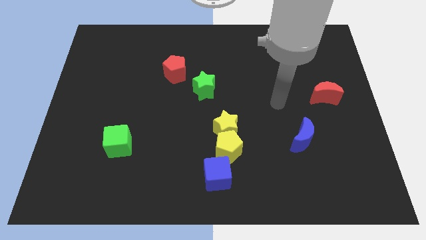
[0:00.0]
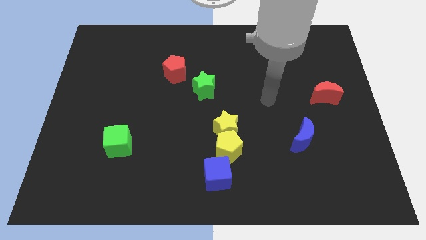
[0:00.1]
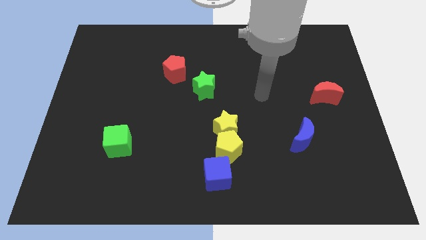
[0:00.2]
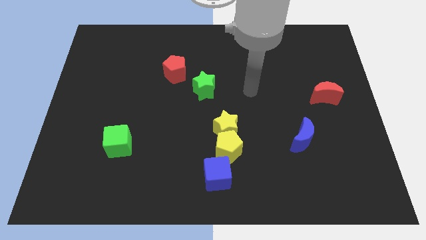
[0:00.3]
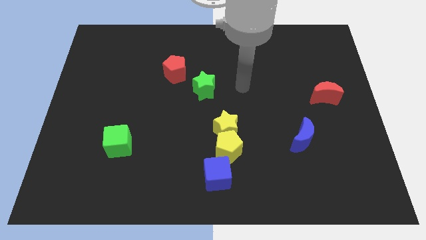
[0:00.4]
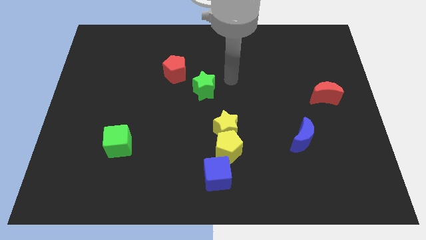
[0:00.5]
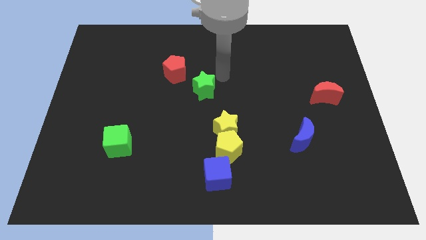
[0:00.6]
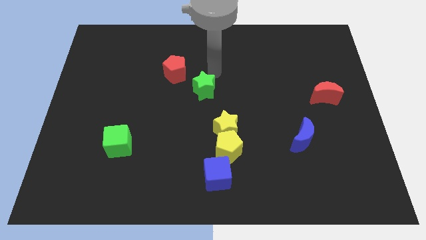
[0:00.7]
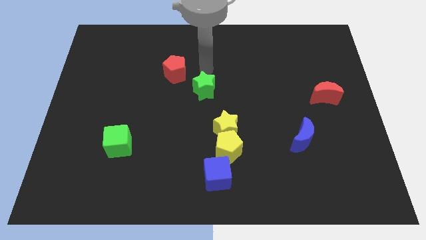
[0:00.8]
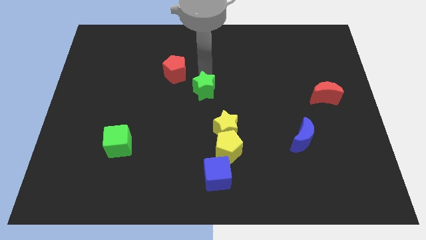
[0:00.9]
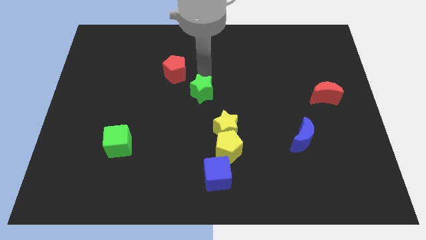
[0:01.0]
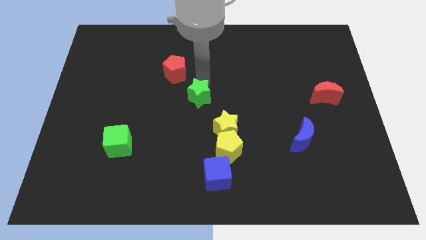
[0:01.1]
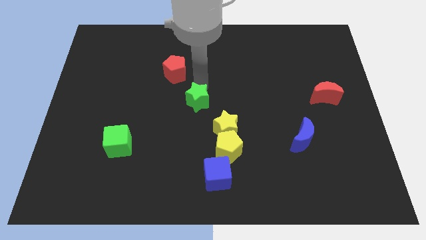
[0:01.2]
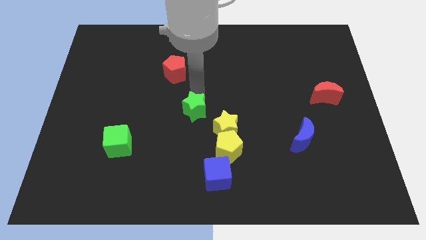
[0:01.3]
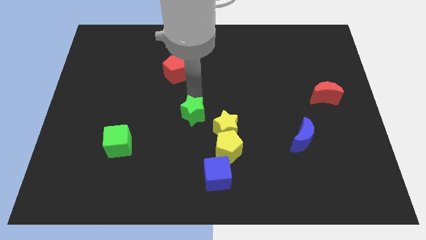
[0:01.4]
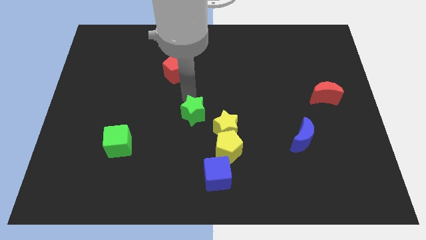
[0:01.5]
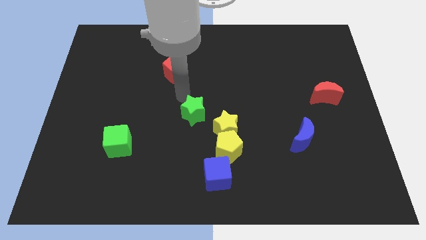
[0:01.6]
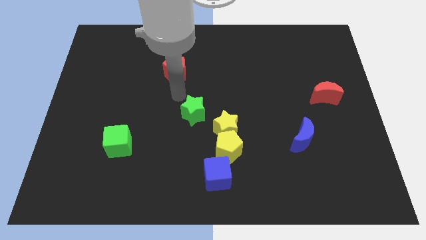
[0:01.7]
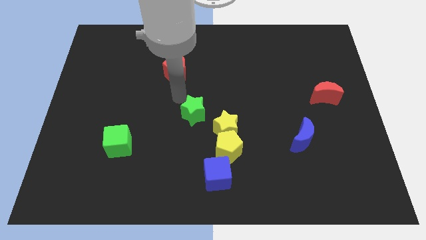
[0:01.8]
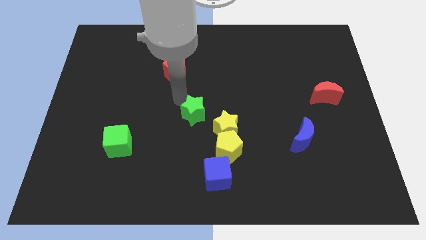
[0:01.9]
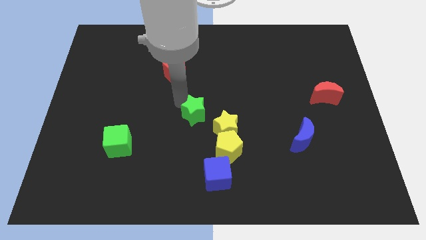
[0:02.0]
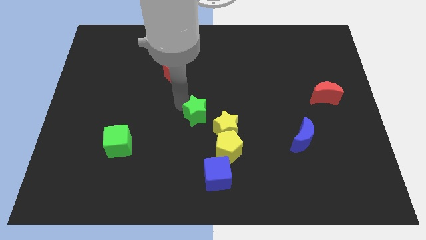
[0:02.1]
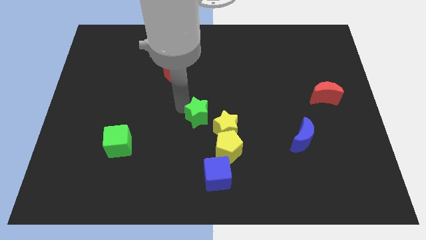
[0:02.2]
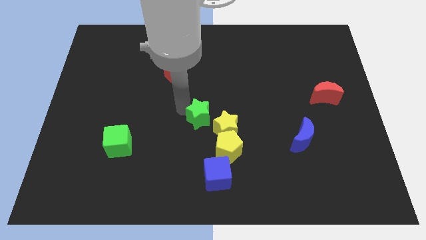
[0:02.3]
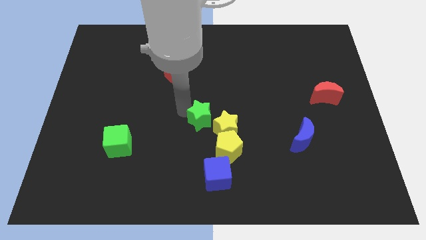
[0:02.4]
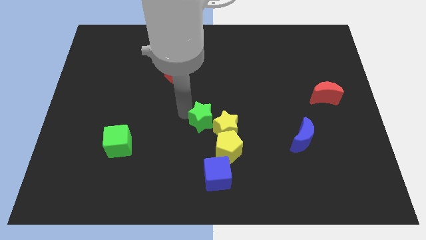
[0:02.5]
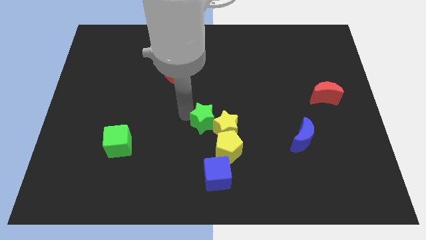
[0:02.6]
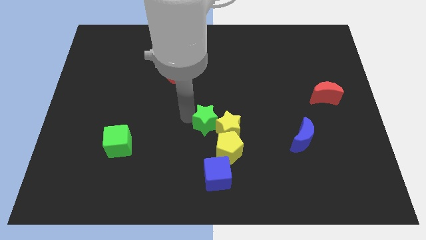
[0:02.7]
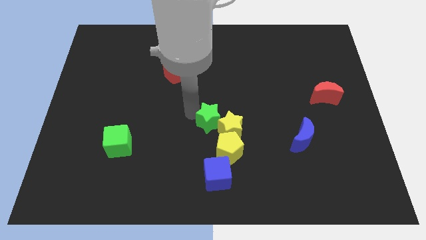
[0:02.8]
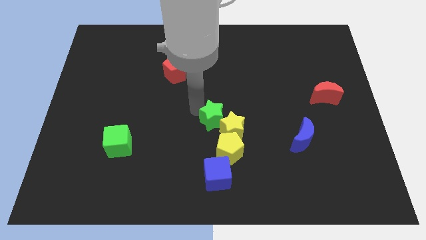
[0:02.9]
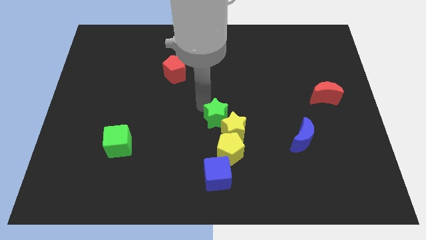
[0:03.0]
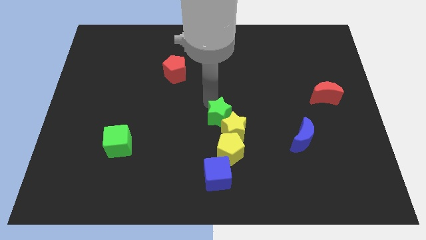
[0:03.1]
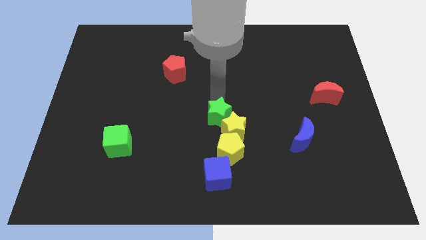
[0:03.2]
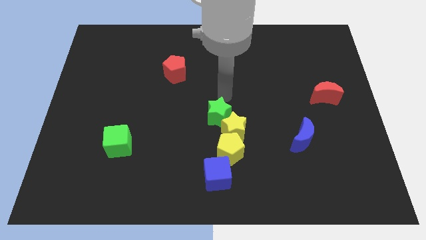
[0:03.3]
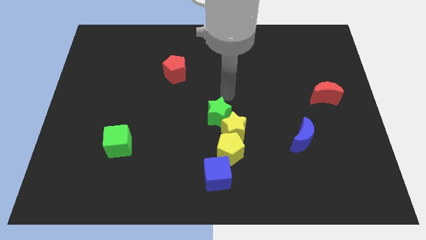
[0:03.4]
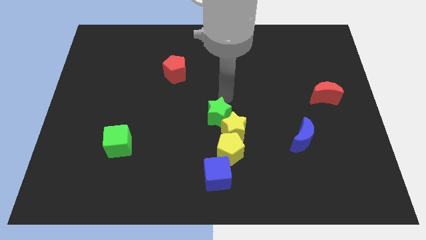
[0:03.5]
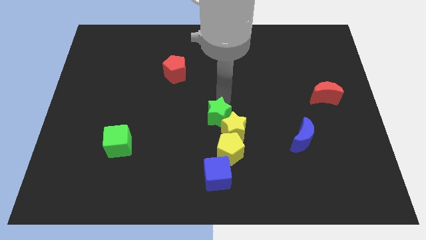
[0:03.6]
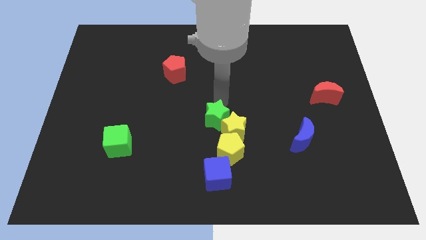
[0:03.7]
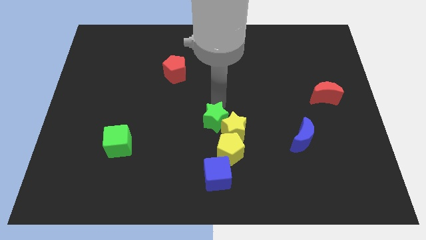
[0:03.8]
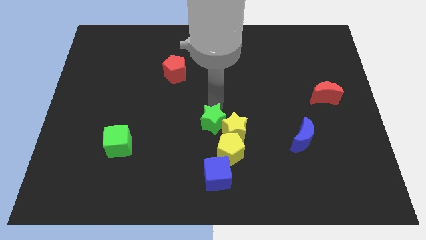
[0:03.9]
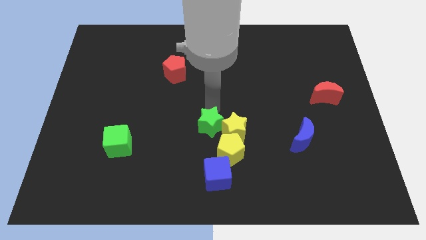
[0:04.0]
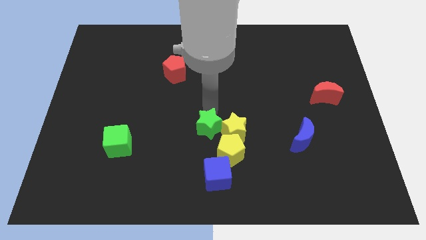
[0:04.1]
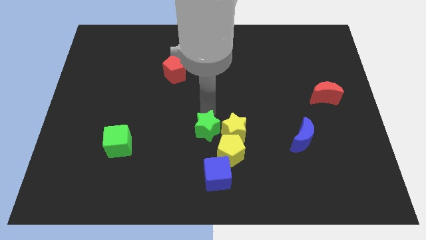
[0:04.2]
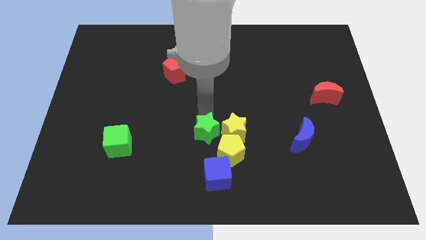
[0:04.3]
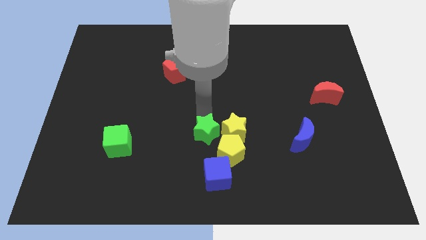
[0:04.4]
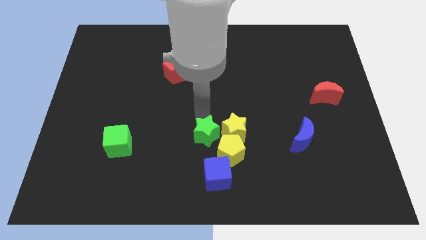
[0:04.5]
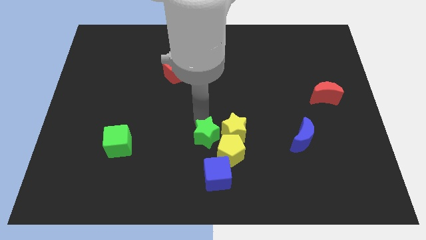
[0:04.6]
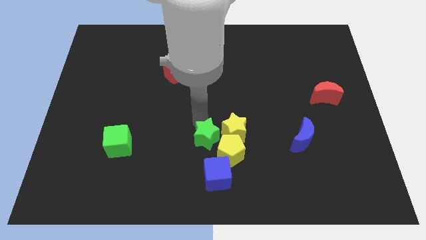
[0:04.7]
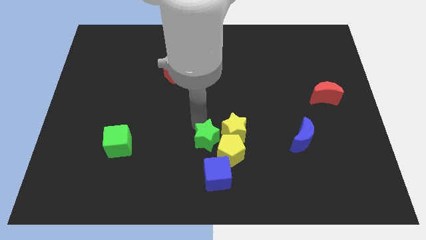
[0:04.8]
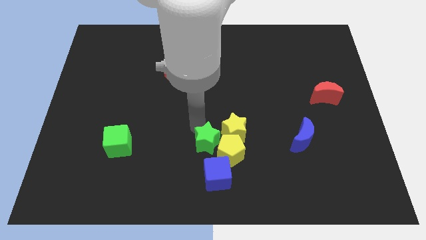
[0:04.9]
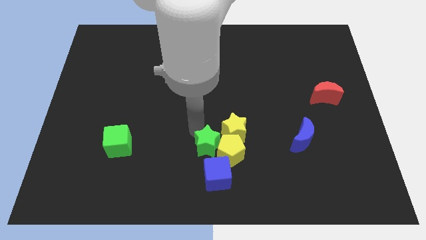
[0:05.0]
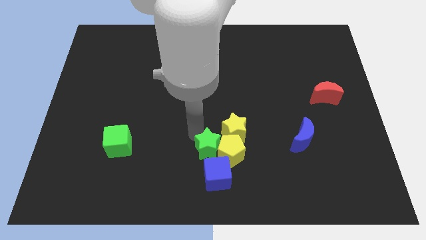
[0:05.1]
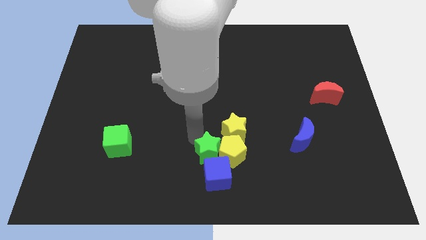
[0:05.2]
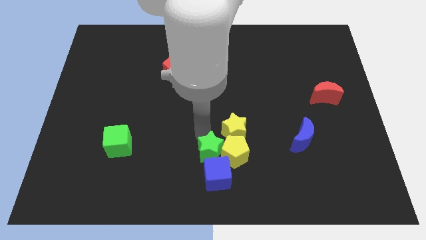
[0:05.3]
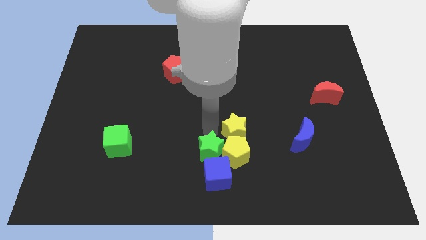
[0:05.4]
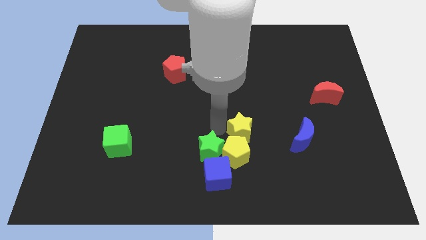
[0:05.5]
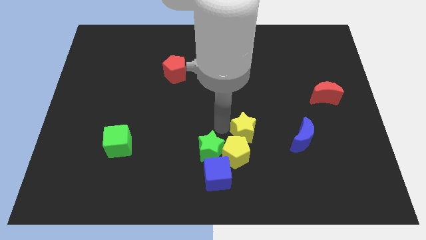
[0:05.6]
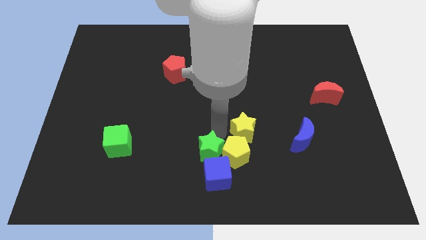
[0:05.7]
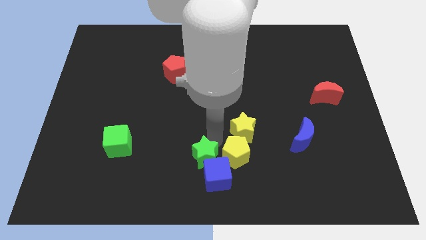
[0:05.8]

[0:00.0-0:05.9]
push the green star to the bottom
